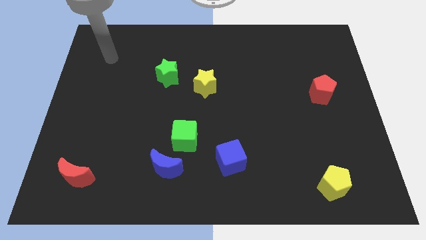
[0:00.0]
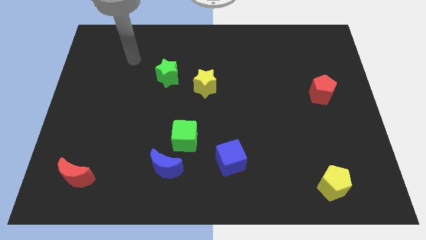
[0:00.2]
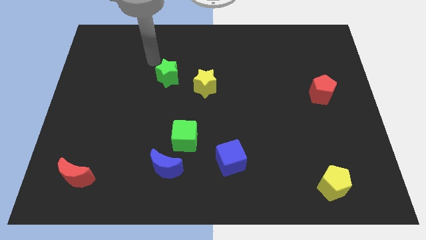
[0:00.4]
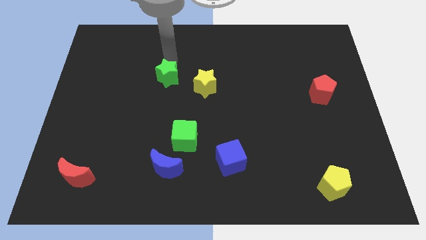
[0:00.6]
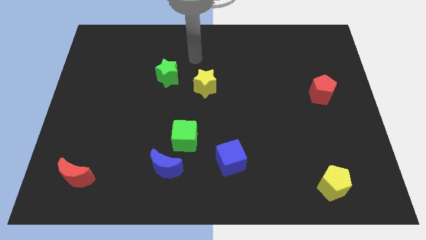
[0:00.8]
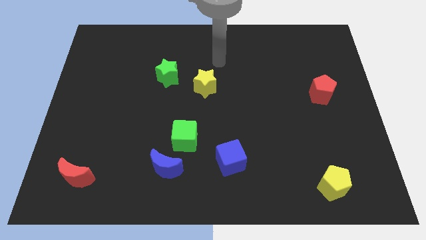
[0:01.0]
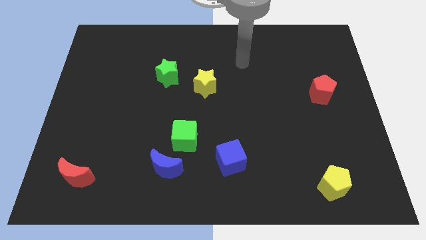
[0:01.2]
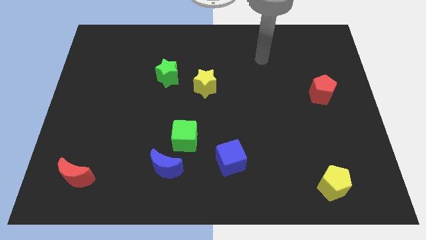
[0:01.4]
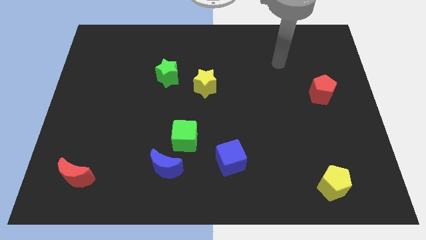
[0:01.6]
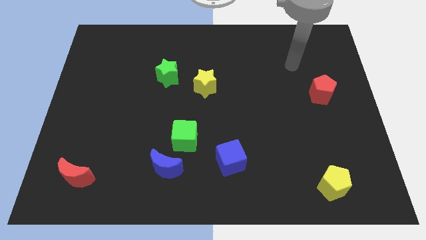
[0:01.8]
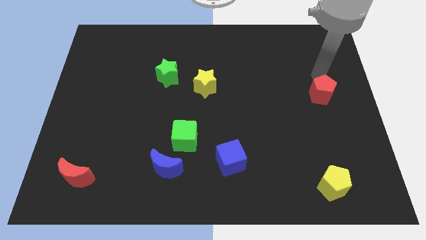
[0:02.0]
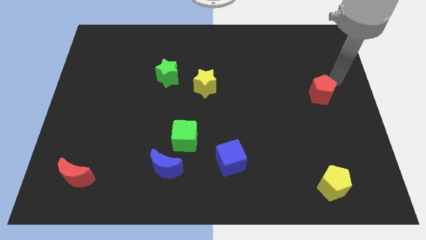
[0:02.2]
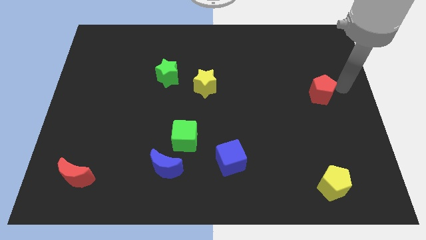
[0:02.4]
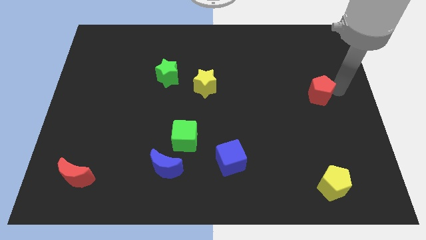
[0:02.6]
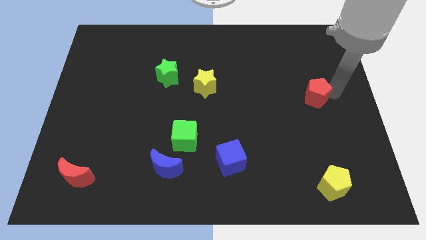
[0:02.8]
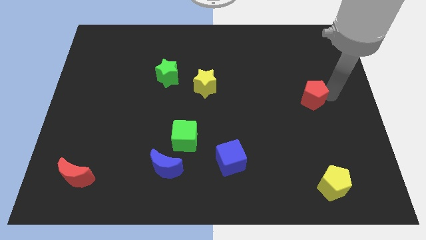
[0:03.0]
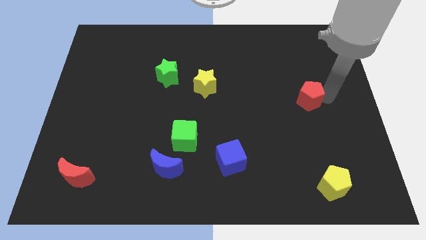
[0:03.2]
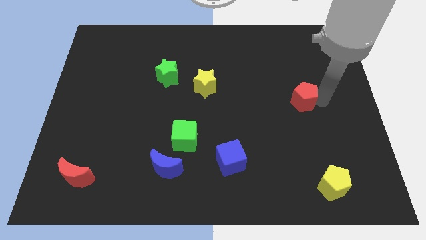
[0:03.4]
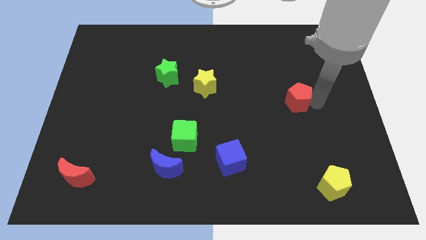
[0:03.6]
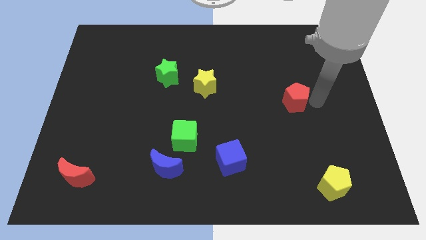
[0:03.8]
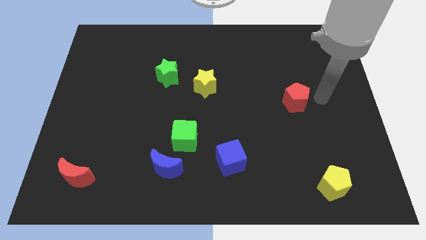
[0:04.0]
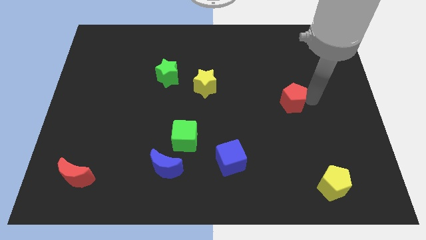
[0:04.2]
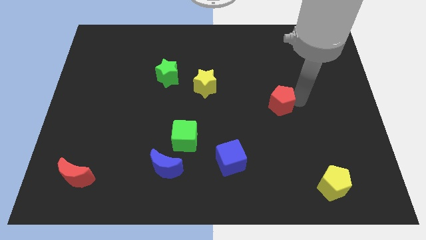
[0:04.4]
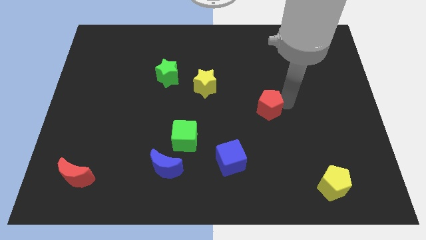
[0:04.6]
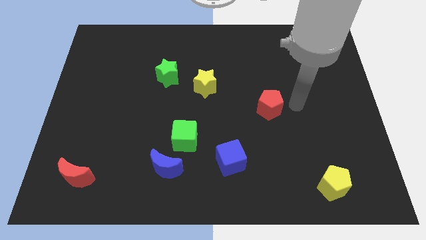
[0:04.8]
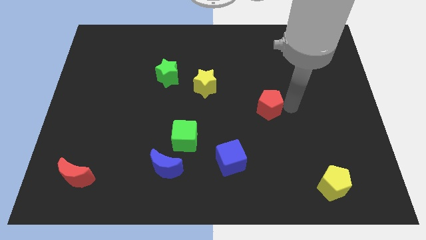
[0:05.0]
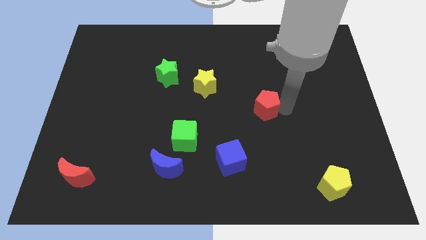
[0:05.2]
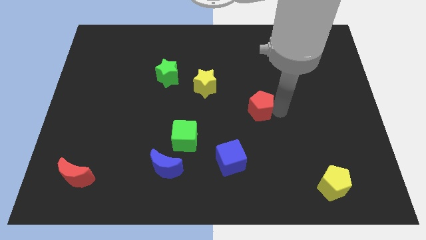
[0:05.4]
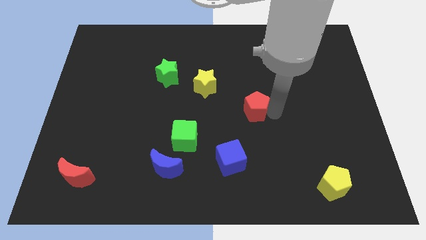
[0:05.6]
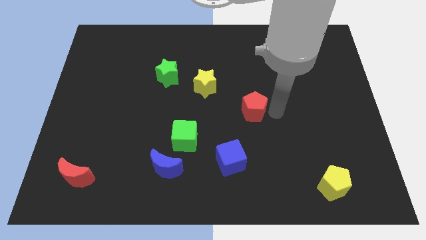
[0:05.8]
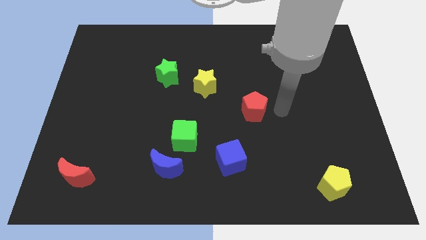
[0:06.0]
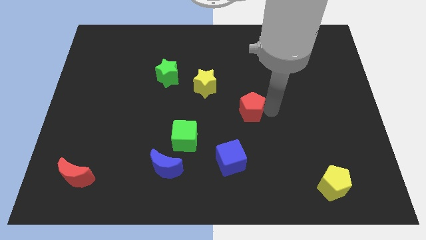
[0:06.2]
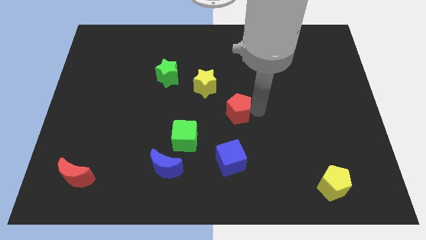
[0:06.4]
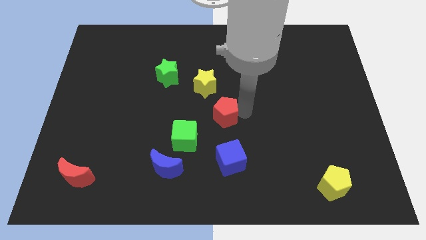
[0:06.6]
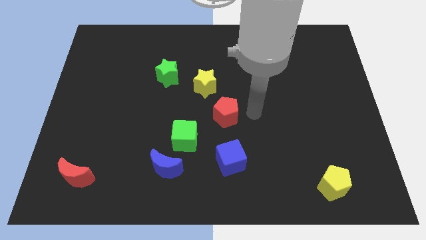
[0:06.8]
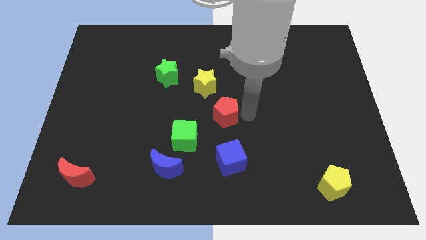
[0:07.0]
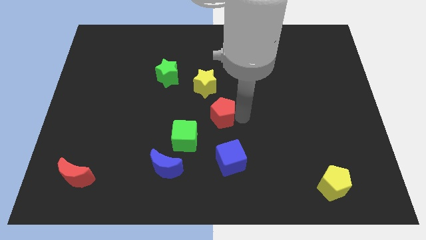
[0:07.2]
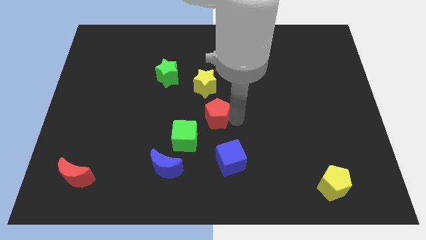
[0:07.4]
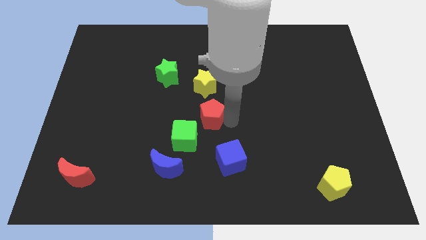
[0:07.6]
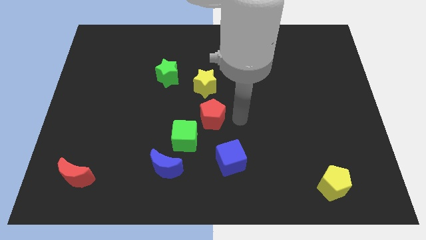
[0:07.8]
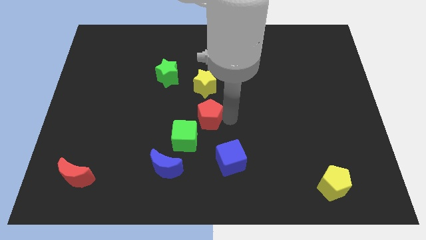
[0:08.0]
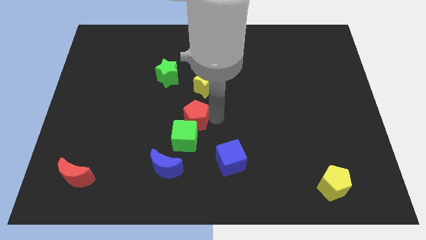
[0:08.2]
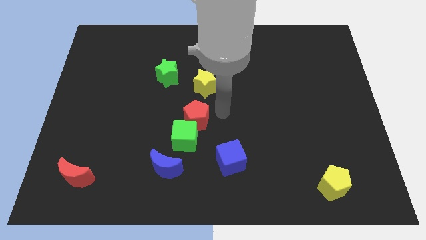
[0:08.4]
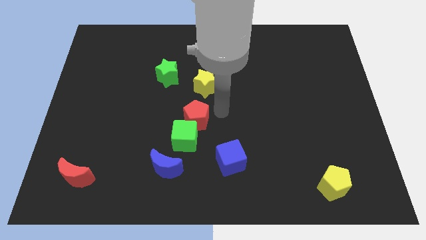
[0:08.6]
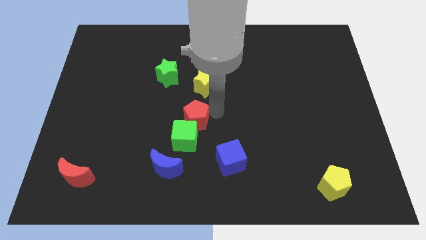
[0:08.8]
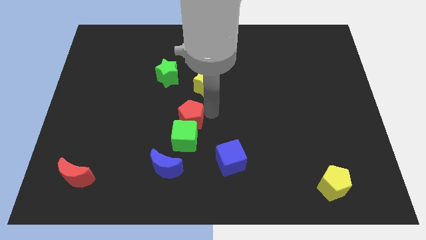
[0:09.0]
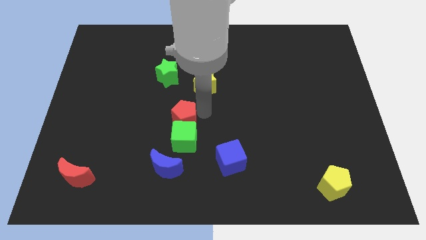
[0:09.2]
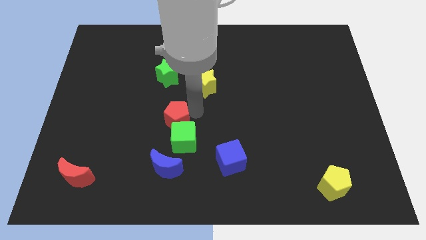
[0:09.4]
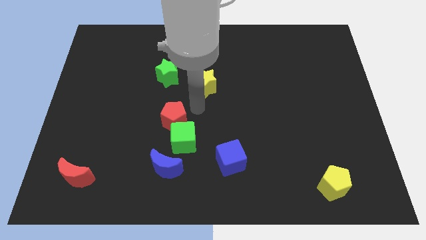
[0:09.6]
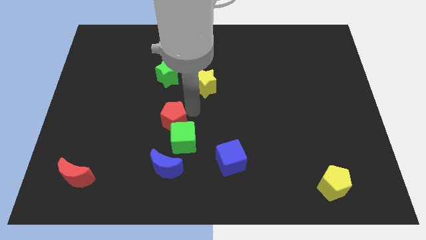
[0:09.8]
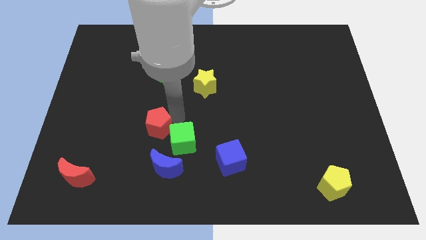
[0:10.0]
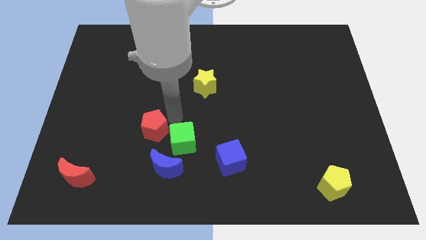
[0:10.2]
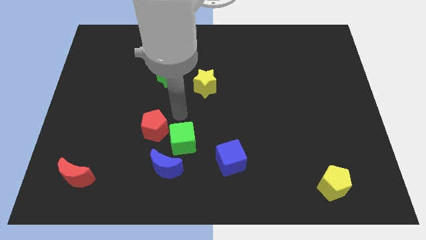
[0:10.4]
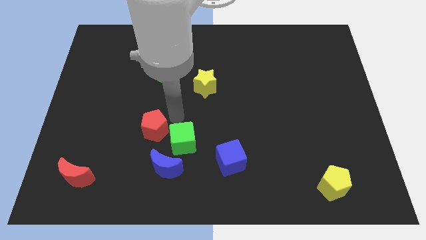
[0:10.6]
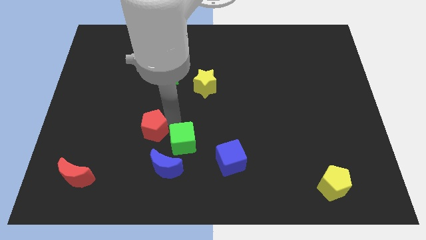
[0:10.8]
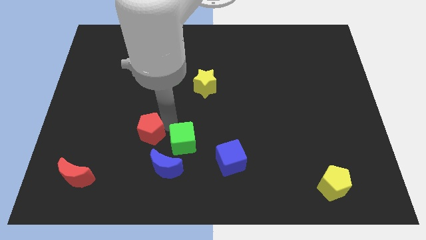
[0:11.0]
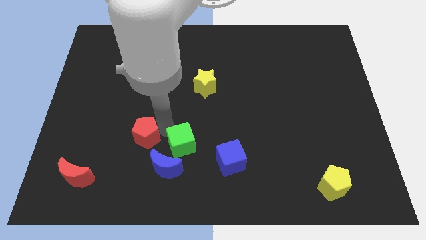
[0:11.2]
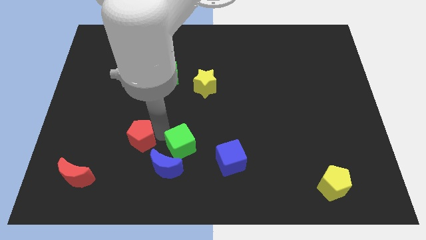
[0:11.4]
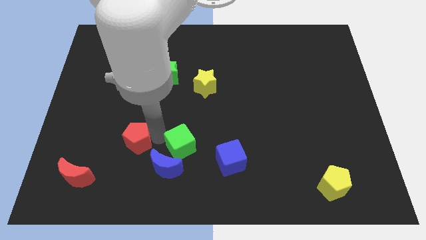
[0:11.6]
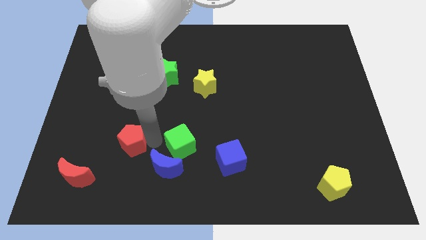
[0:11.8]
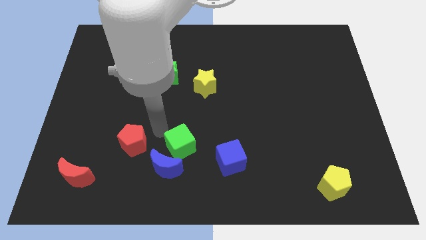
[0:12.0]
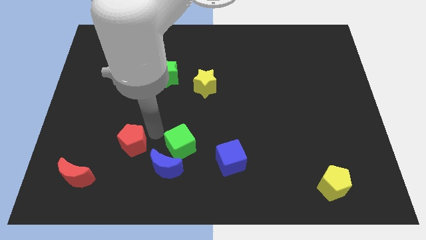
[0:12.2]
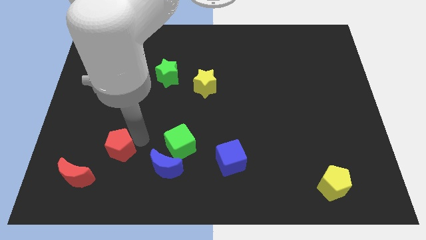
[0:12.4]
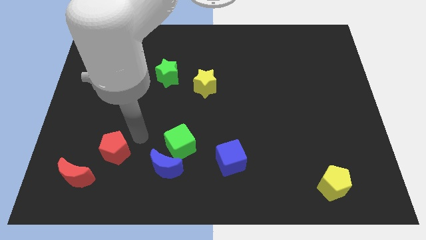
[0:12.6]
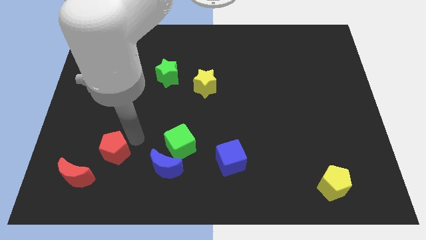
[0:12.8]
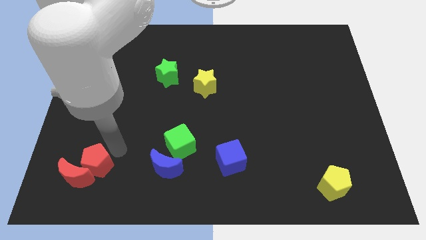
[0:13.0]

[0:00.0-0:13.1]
push the red pentagon next to the red moon

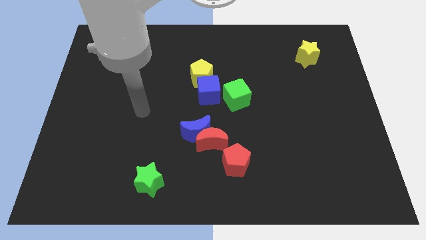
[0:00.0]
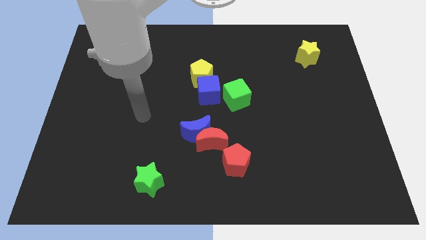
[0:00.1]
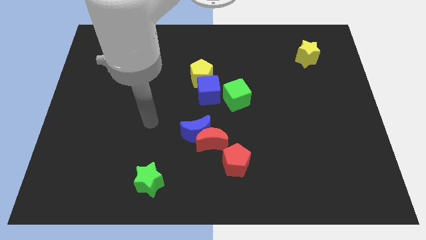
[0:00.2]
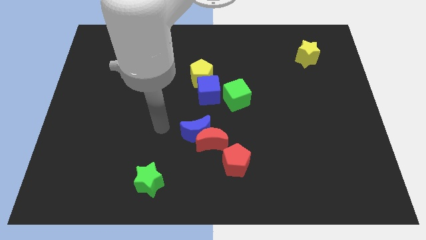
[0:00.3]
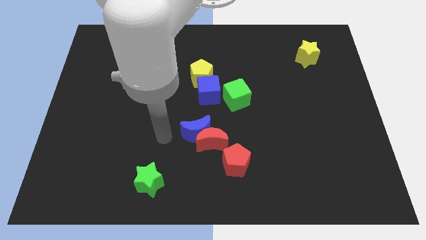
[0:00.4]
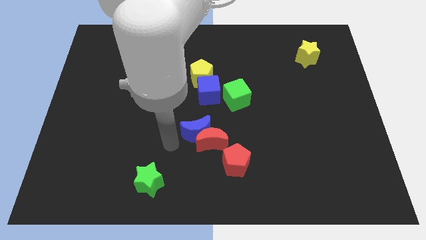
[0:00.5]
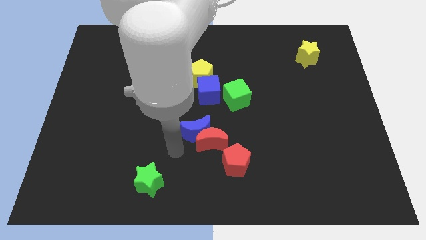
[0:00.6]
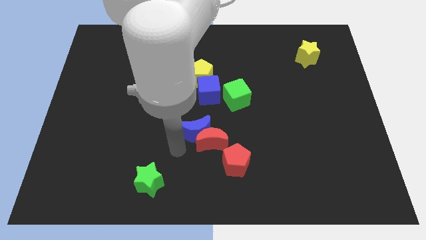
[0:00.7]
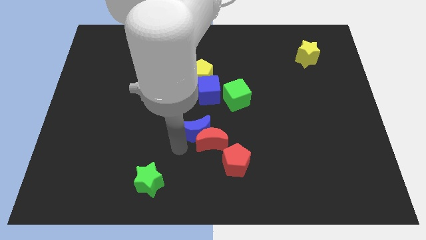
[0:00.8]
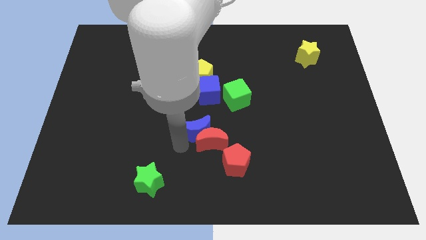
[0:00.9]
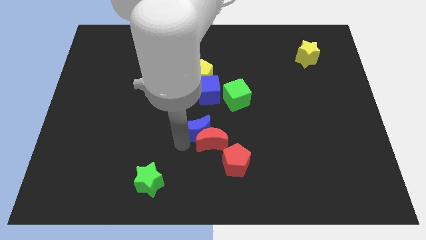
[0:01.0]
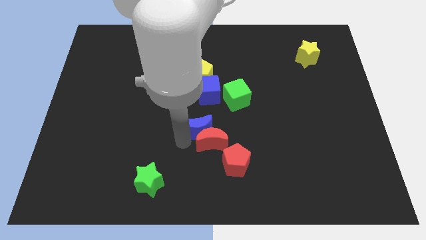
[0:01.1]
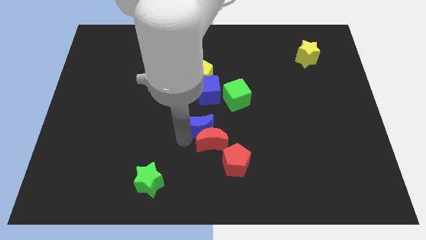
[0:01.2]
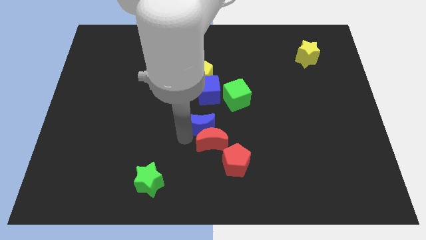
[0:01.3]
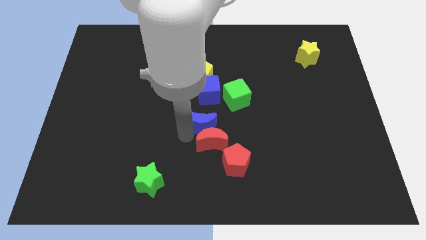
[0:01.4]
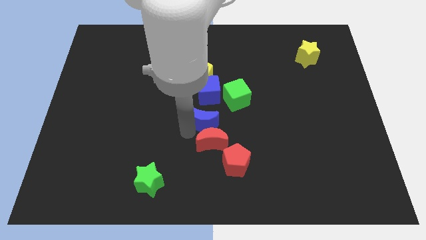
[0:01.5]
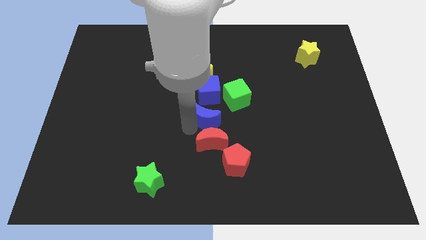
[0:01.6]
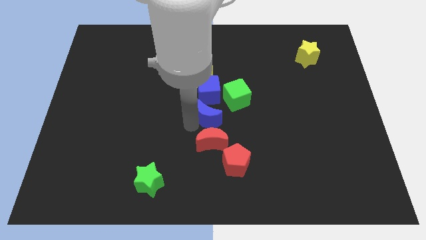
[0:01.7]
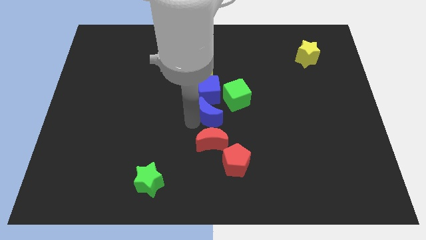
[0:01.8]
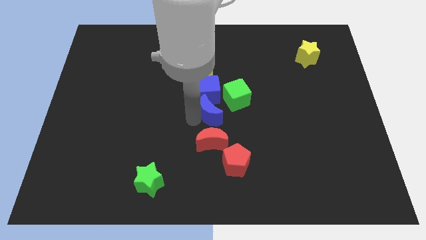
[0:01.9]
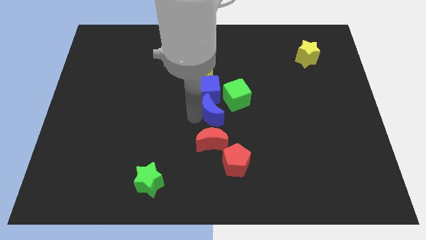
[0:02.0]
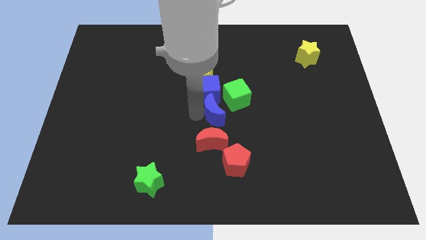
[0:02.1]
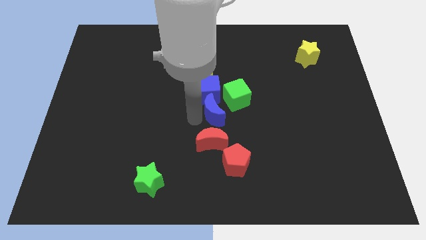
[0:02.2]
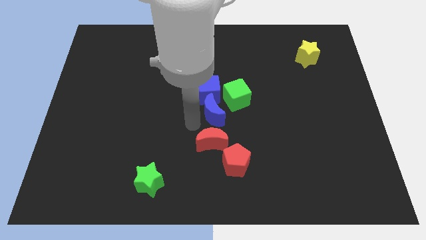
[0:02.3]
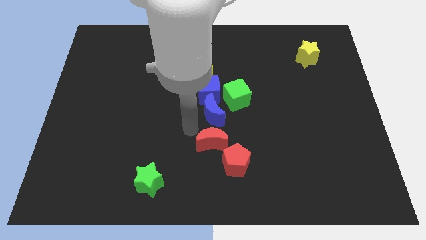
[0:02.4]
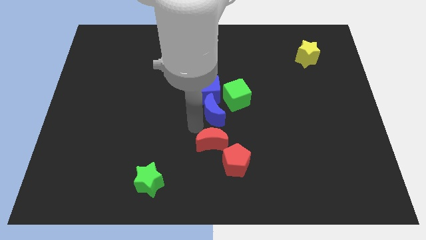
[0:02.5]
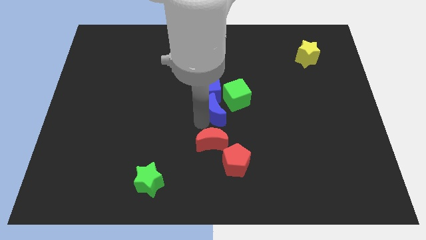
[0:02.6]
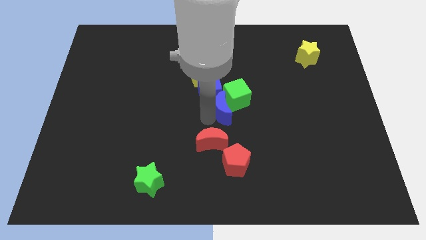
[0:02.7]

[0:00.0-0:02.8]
slide the blue moon towards the green cube
